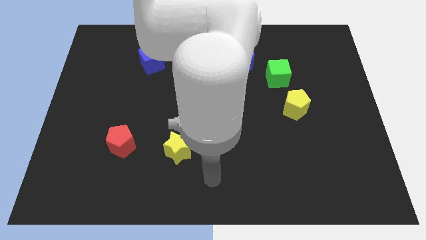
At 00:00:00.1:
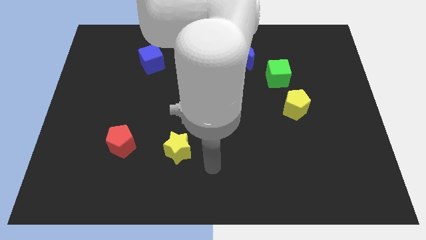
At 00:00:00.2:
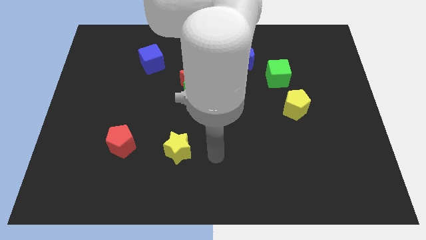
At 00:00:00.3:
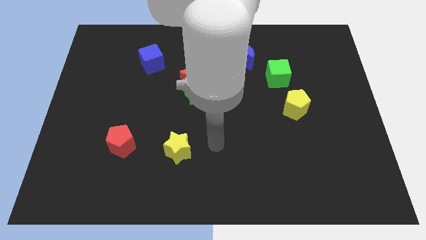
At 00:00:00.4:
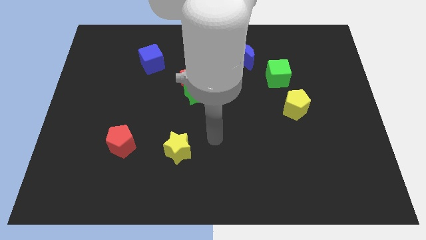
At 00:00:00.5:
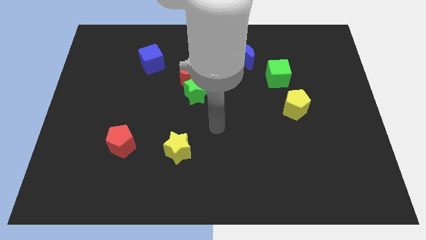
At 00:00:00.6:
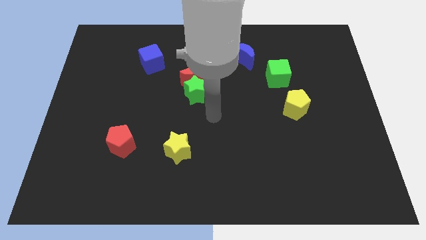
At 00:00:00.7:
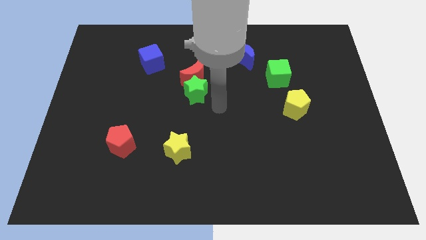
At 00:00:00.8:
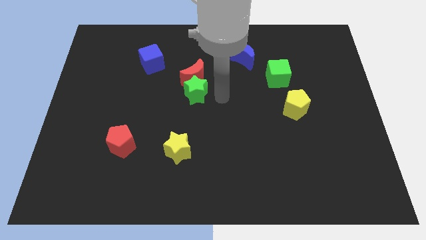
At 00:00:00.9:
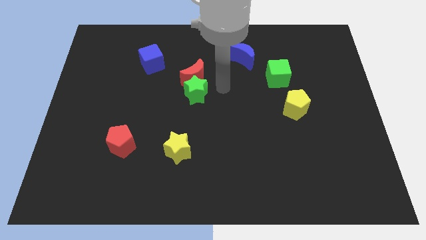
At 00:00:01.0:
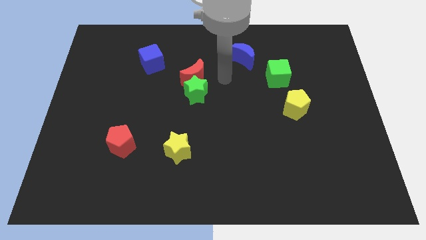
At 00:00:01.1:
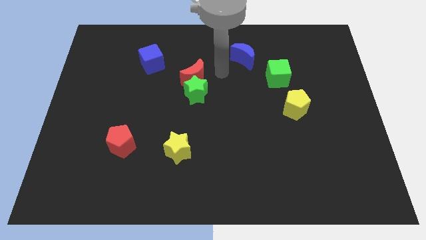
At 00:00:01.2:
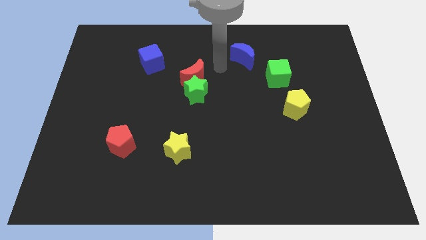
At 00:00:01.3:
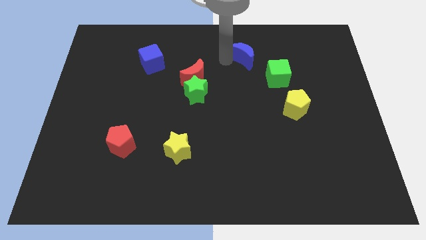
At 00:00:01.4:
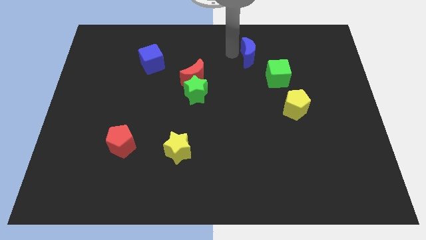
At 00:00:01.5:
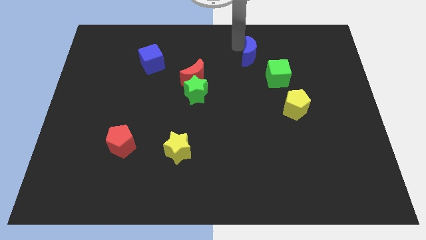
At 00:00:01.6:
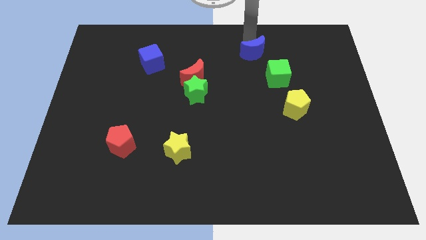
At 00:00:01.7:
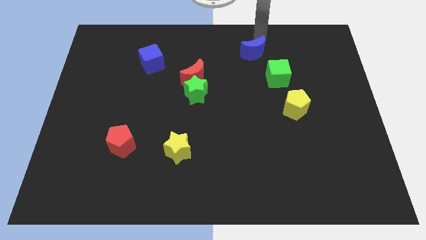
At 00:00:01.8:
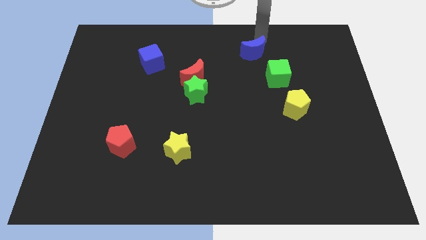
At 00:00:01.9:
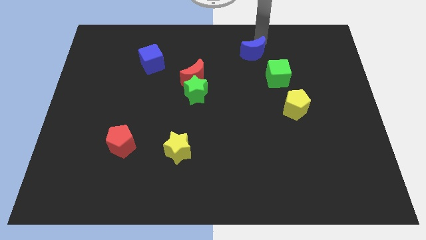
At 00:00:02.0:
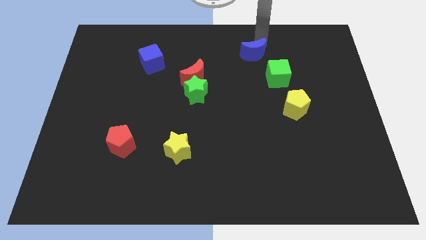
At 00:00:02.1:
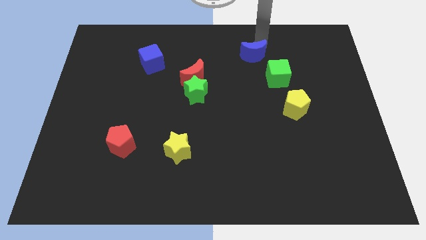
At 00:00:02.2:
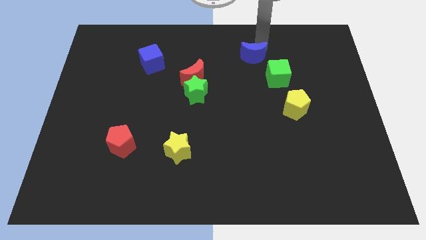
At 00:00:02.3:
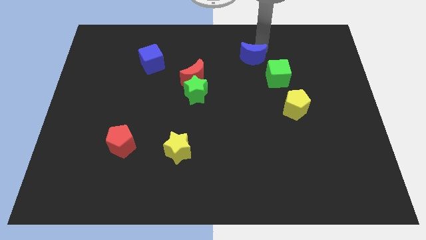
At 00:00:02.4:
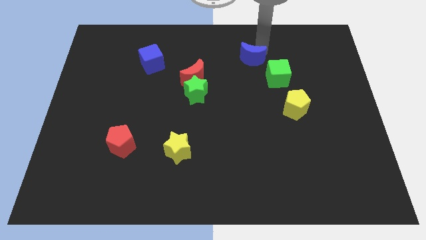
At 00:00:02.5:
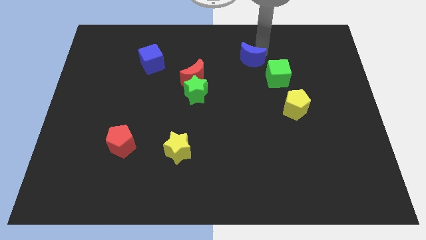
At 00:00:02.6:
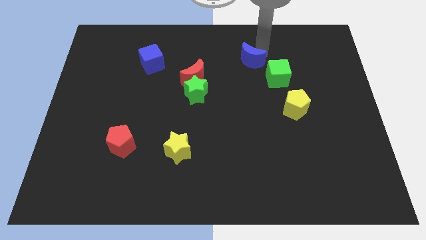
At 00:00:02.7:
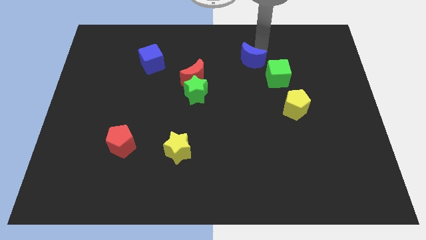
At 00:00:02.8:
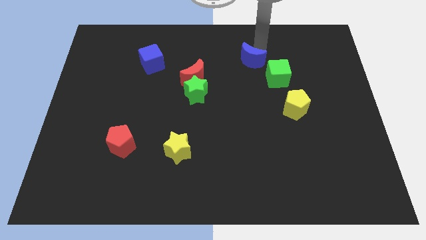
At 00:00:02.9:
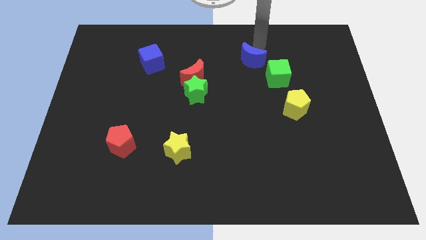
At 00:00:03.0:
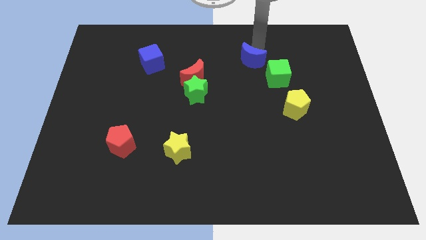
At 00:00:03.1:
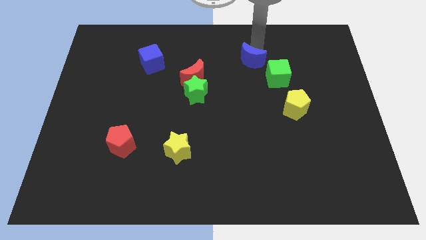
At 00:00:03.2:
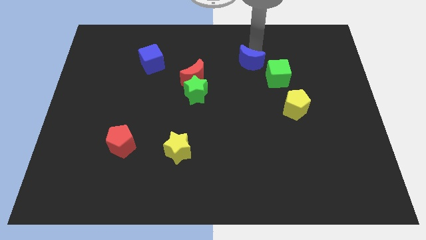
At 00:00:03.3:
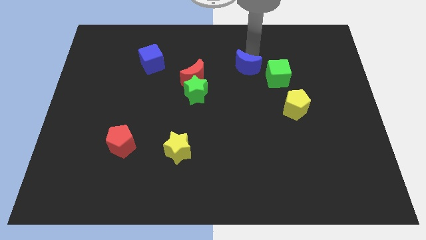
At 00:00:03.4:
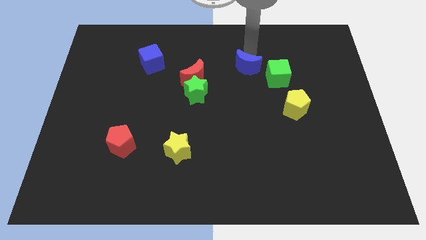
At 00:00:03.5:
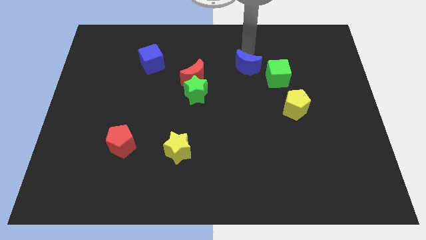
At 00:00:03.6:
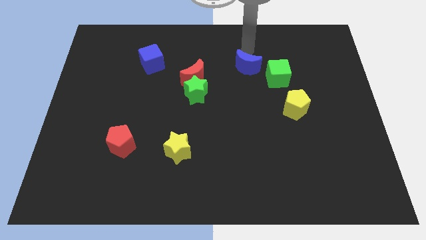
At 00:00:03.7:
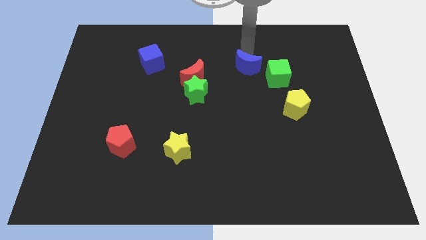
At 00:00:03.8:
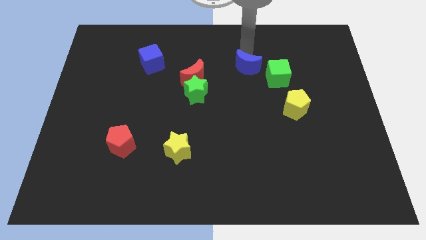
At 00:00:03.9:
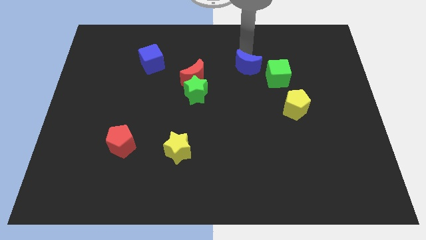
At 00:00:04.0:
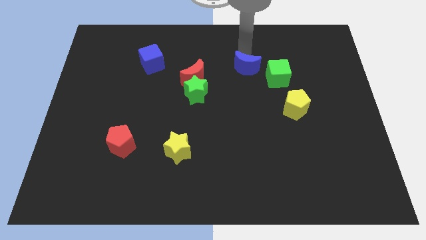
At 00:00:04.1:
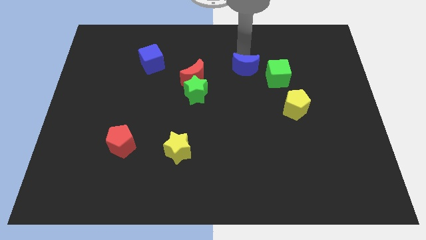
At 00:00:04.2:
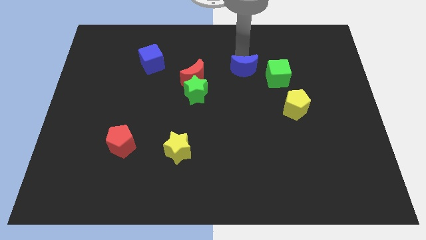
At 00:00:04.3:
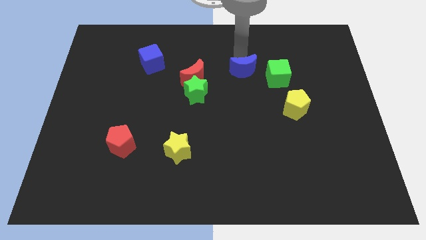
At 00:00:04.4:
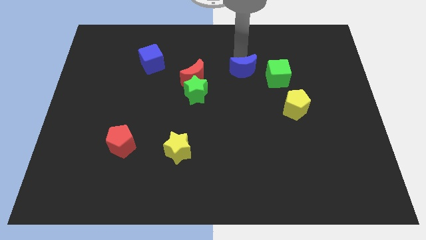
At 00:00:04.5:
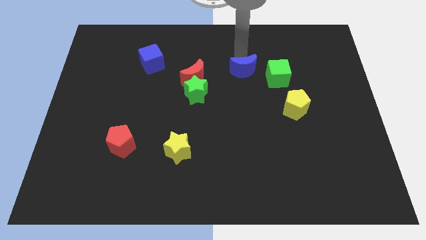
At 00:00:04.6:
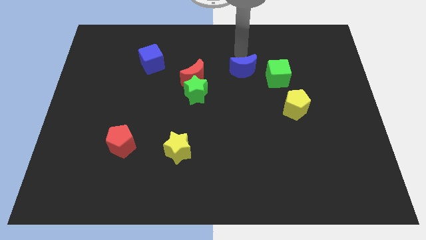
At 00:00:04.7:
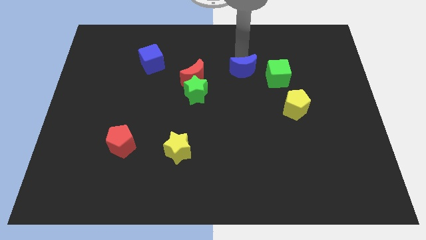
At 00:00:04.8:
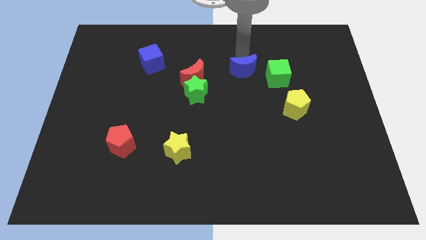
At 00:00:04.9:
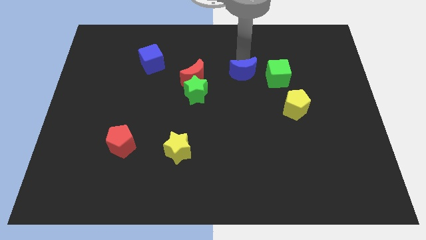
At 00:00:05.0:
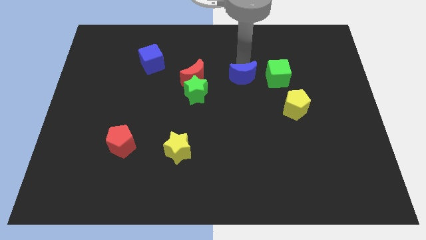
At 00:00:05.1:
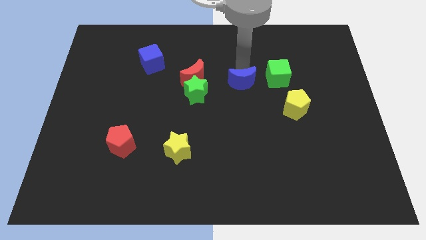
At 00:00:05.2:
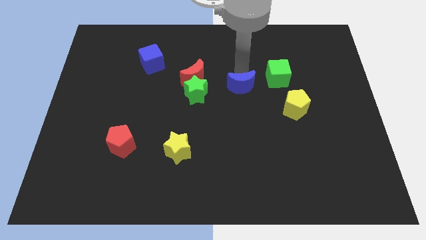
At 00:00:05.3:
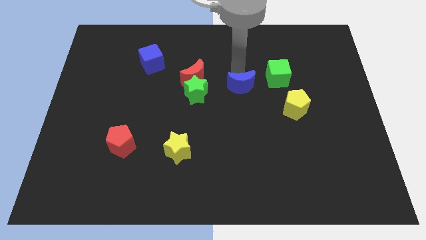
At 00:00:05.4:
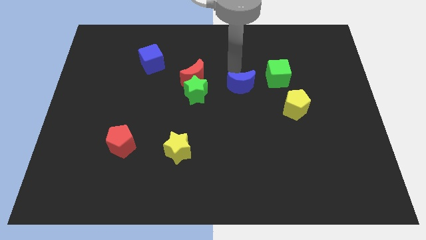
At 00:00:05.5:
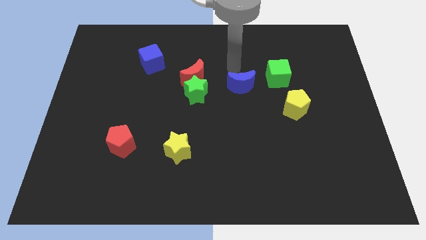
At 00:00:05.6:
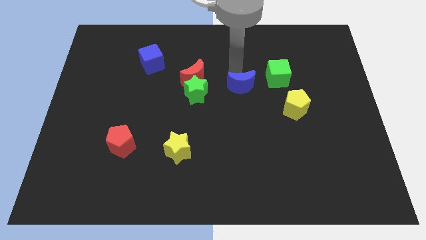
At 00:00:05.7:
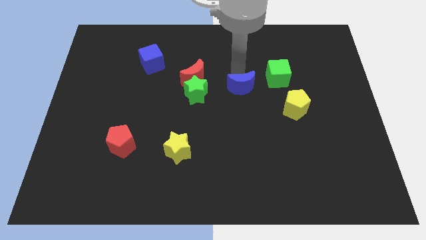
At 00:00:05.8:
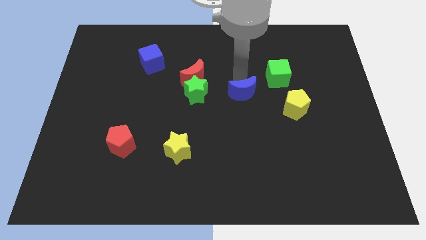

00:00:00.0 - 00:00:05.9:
slide the blue moon left of the yellow pentagon

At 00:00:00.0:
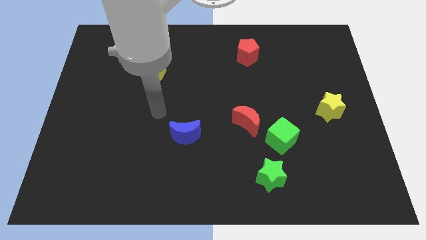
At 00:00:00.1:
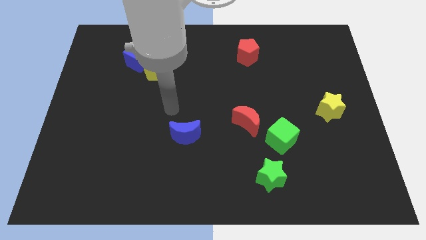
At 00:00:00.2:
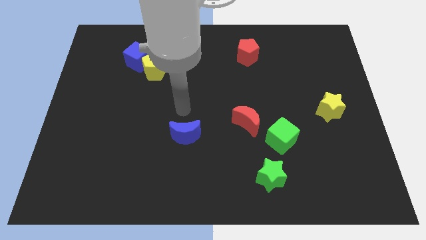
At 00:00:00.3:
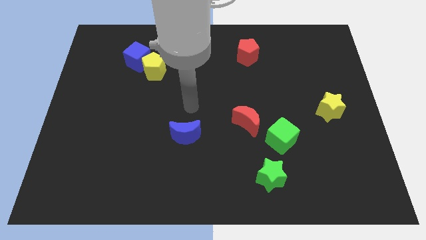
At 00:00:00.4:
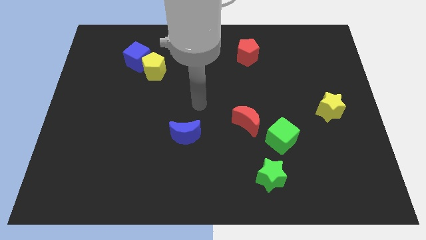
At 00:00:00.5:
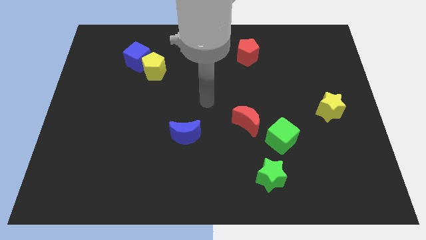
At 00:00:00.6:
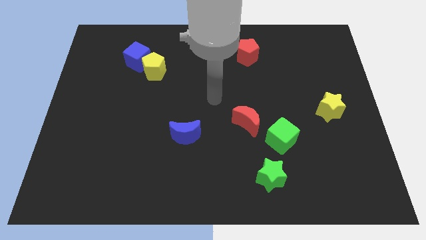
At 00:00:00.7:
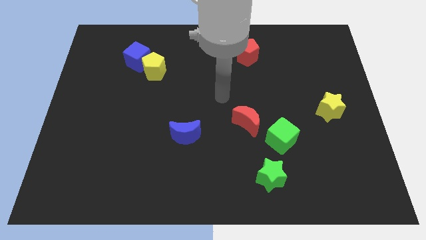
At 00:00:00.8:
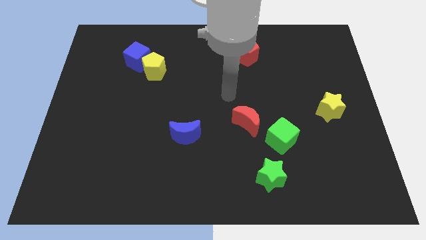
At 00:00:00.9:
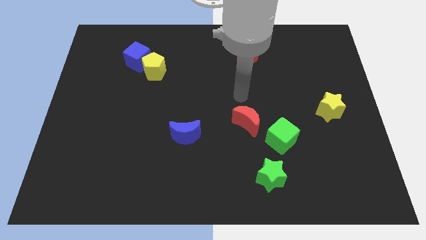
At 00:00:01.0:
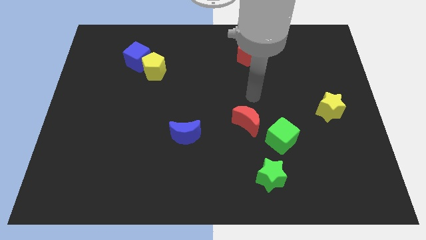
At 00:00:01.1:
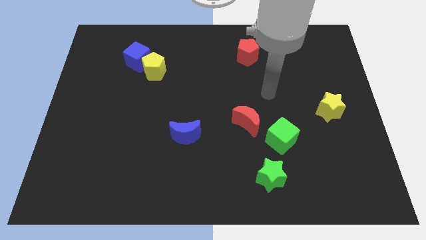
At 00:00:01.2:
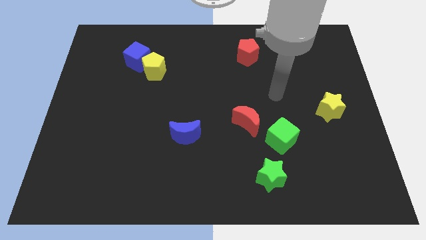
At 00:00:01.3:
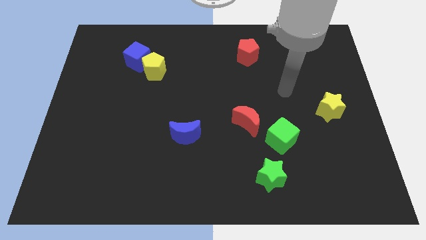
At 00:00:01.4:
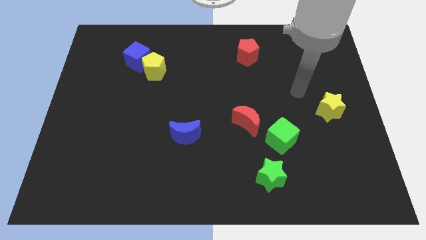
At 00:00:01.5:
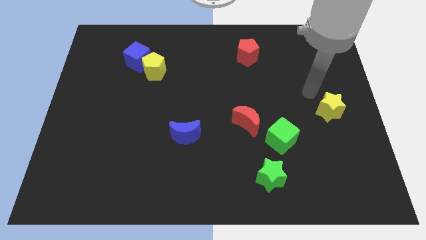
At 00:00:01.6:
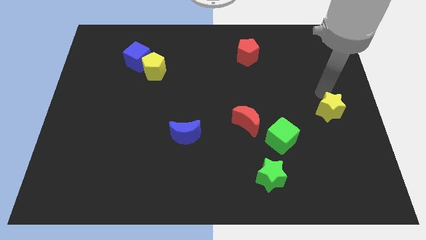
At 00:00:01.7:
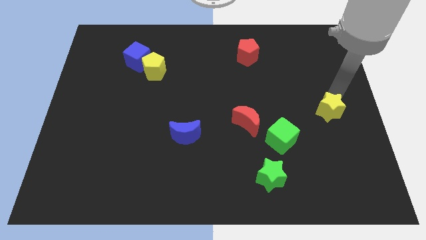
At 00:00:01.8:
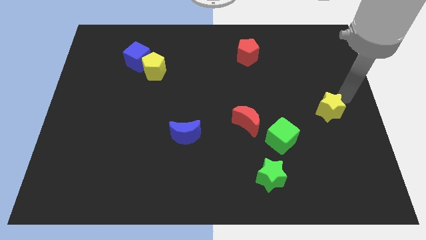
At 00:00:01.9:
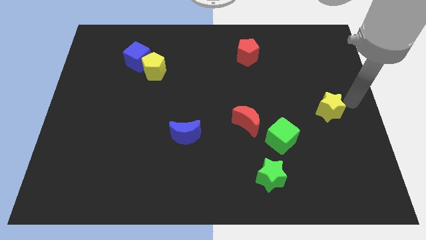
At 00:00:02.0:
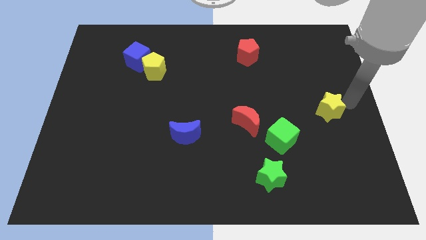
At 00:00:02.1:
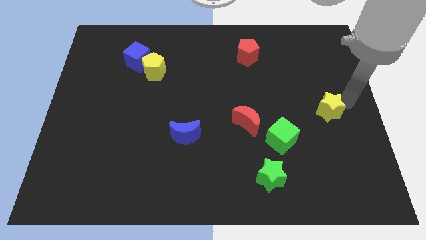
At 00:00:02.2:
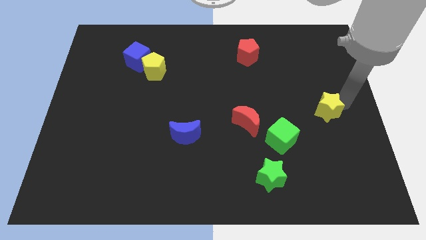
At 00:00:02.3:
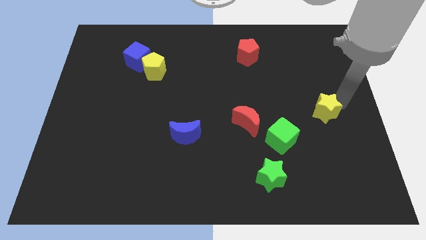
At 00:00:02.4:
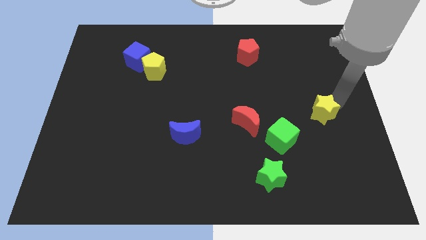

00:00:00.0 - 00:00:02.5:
move the yellow star to the top right of the green cube
